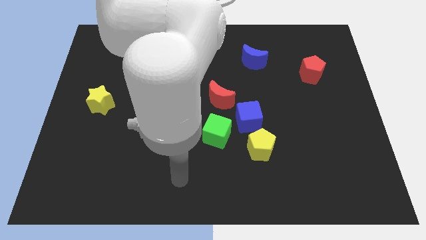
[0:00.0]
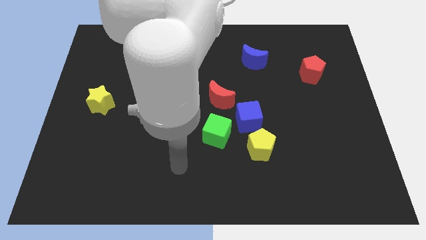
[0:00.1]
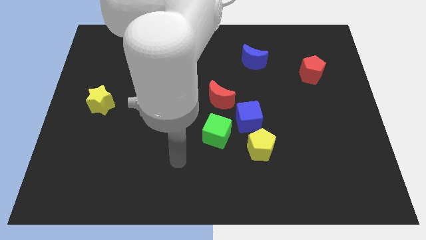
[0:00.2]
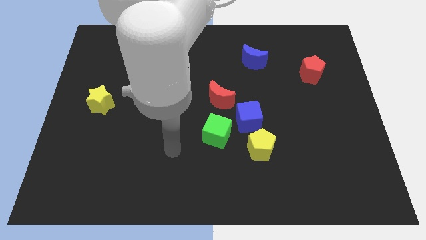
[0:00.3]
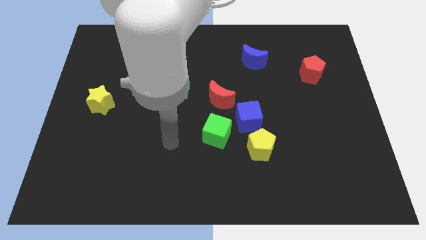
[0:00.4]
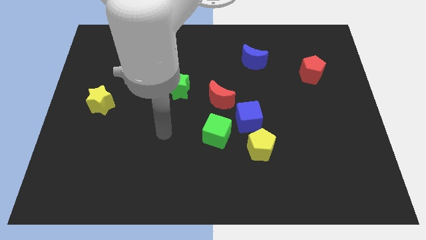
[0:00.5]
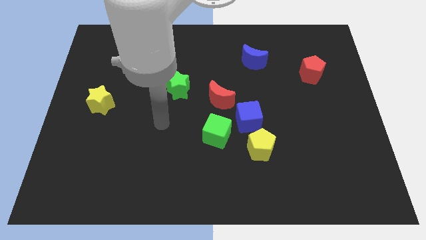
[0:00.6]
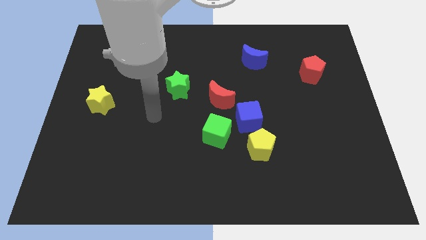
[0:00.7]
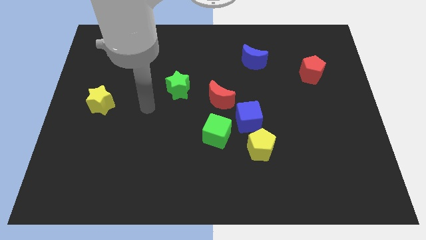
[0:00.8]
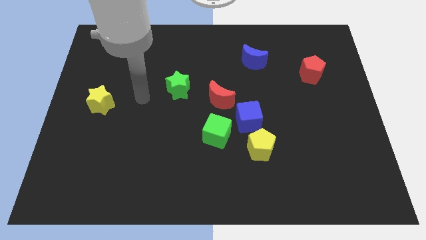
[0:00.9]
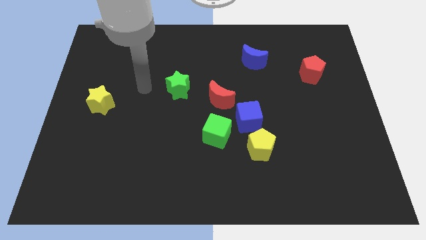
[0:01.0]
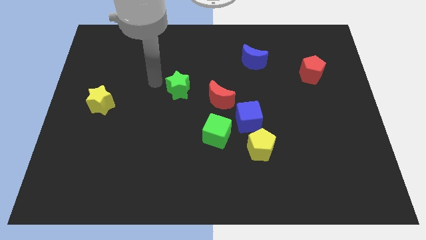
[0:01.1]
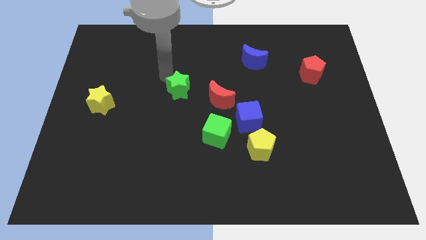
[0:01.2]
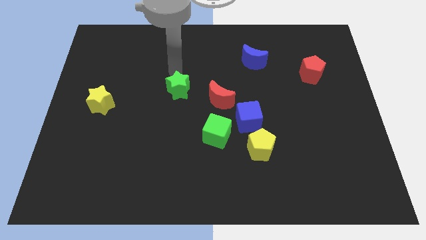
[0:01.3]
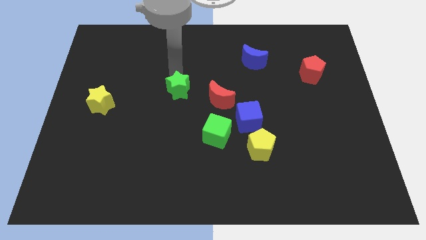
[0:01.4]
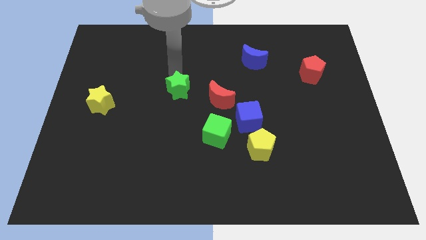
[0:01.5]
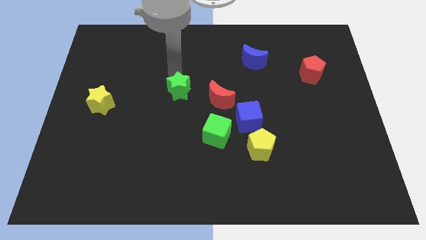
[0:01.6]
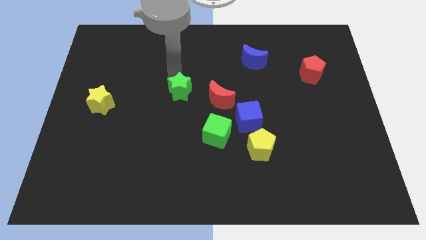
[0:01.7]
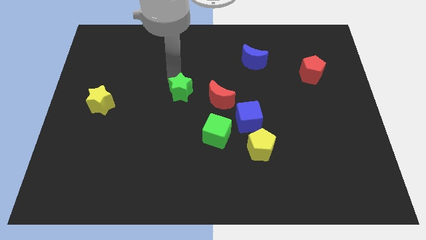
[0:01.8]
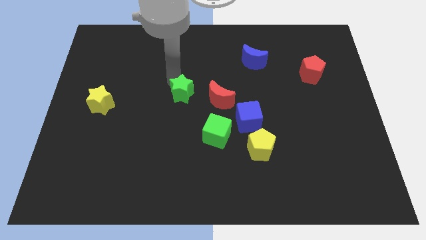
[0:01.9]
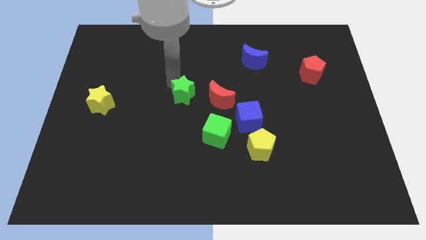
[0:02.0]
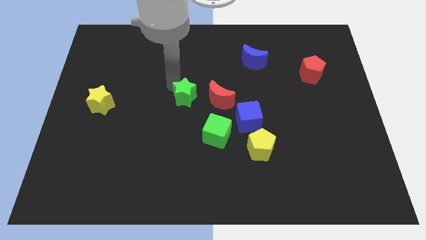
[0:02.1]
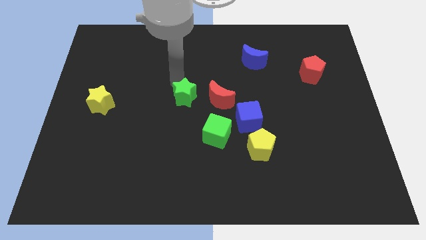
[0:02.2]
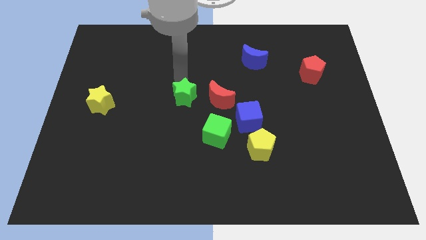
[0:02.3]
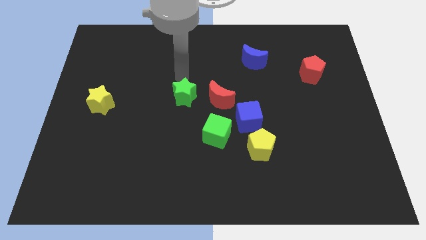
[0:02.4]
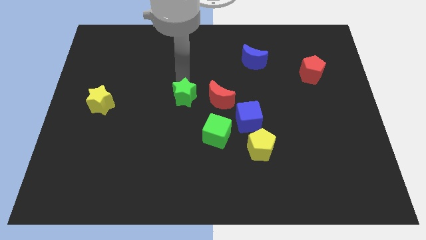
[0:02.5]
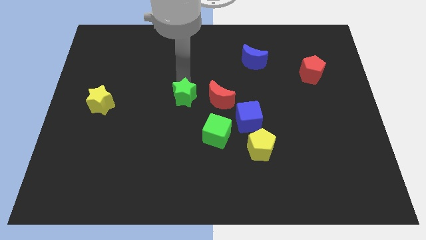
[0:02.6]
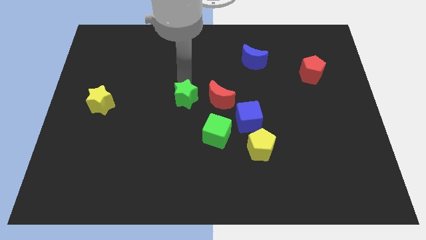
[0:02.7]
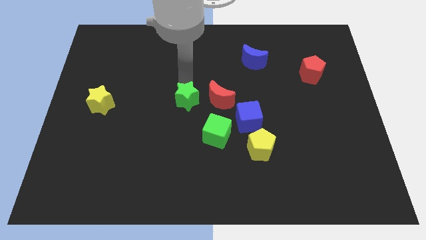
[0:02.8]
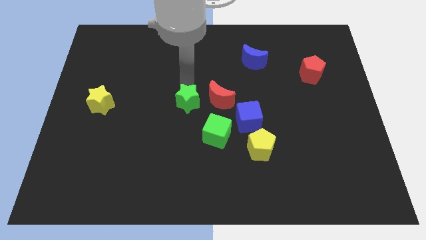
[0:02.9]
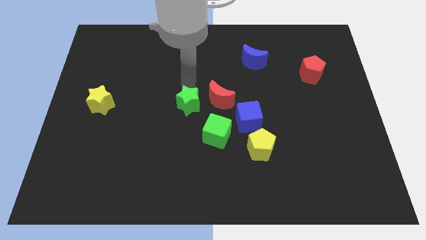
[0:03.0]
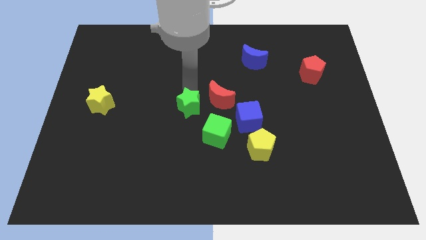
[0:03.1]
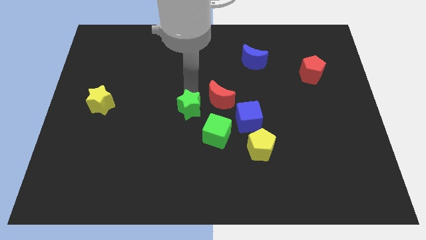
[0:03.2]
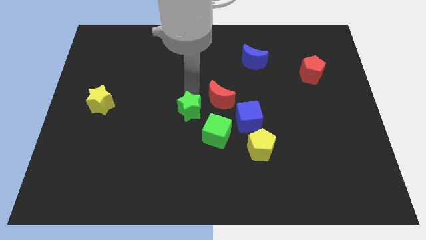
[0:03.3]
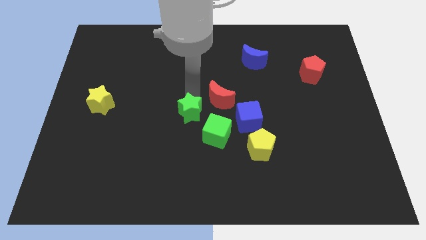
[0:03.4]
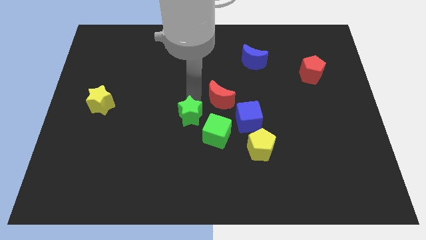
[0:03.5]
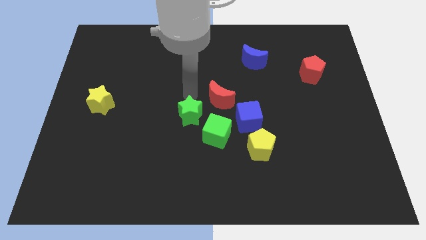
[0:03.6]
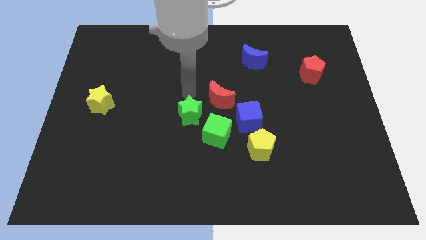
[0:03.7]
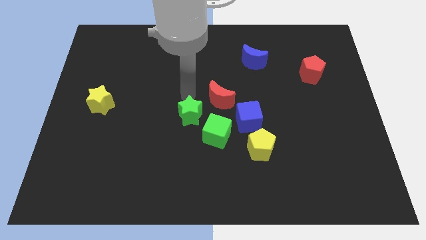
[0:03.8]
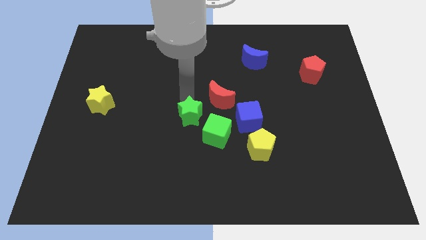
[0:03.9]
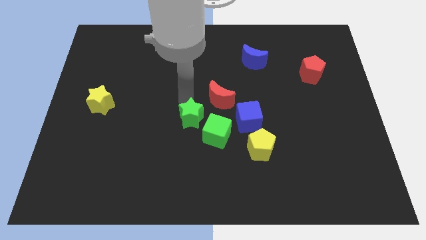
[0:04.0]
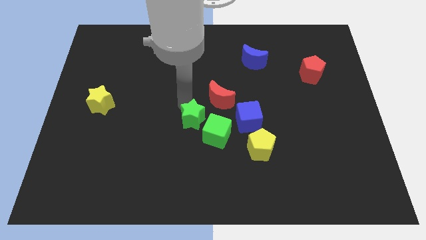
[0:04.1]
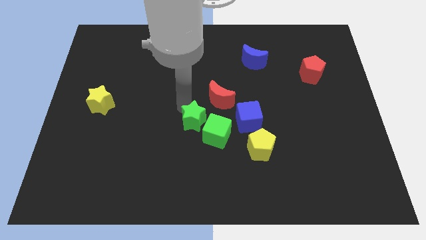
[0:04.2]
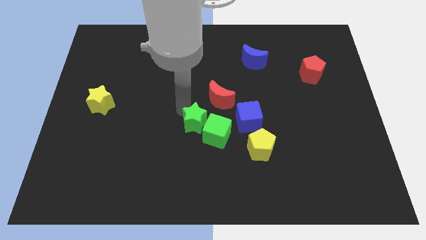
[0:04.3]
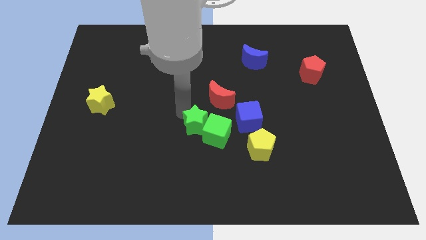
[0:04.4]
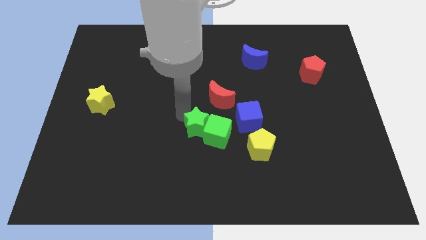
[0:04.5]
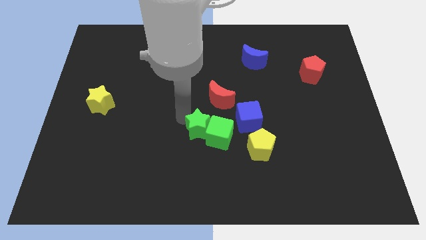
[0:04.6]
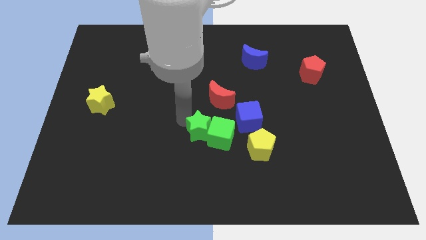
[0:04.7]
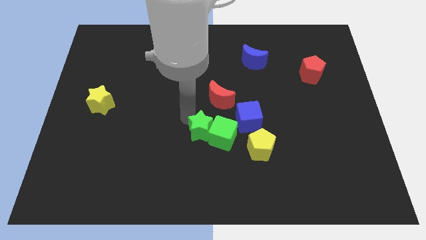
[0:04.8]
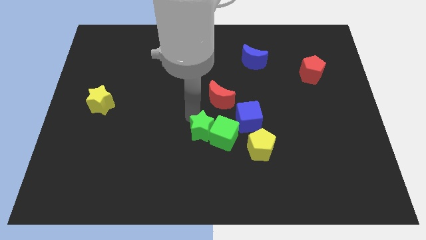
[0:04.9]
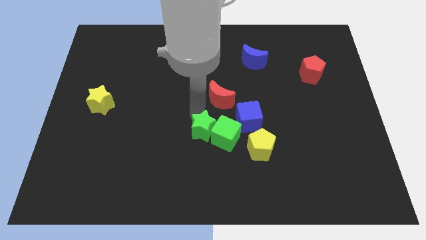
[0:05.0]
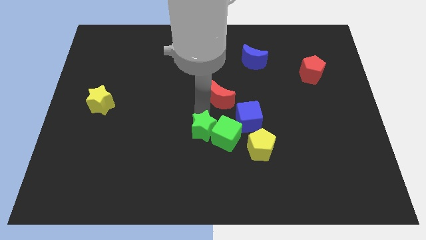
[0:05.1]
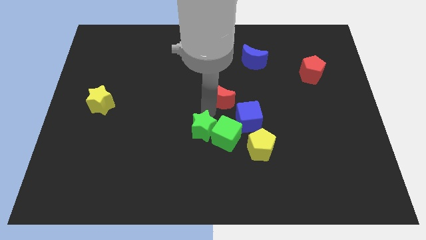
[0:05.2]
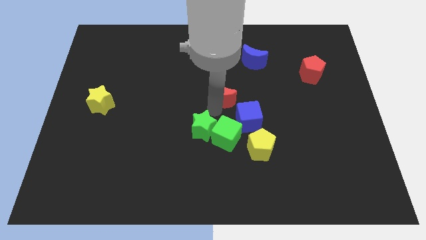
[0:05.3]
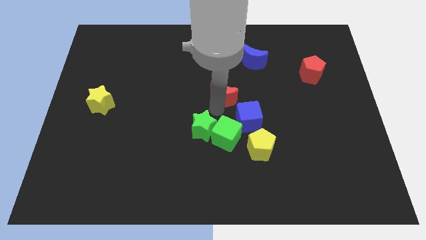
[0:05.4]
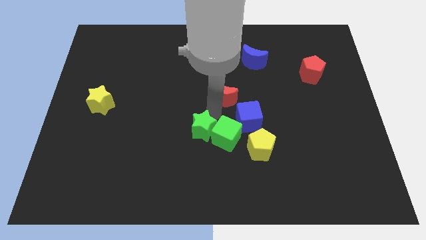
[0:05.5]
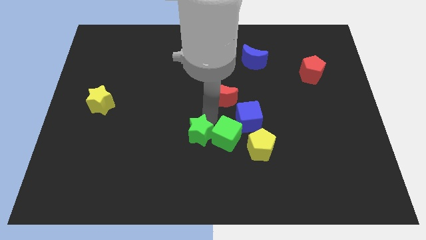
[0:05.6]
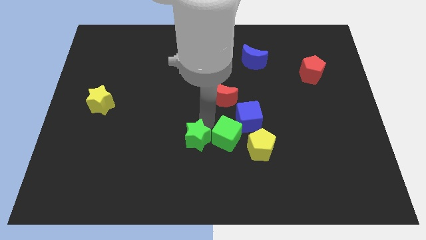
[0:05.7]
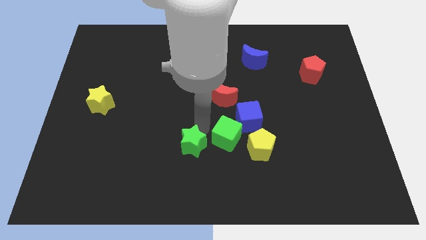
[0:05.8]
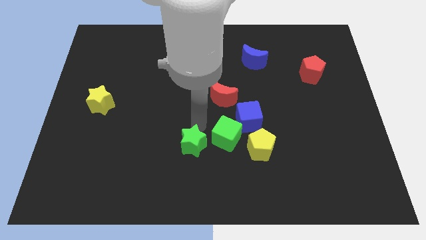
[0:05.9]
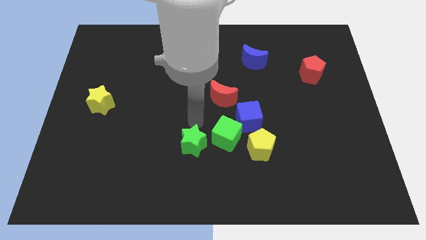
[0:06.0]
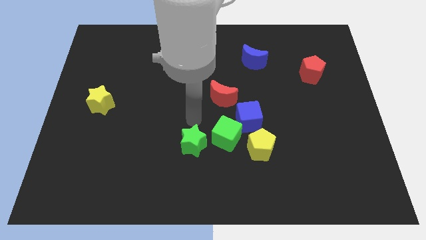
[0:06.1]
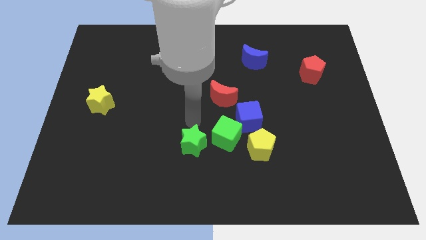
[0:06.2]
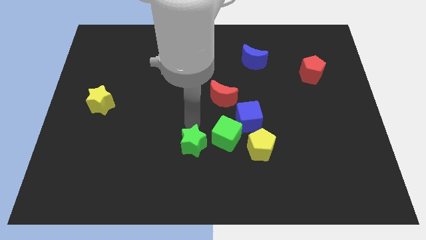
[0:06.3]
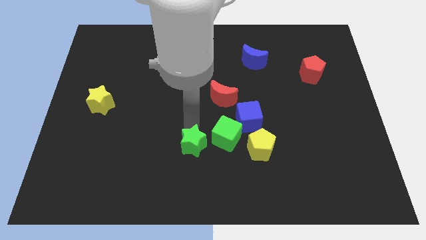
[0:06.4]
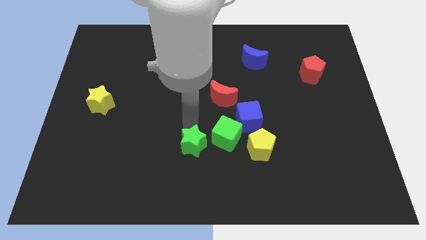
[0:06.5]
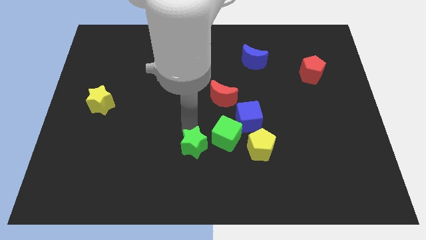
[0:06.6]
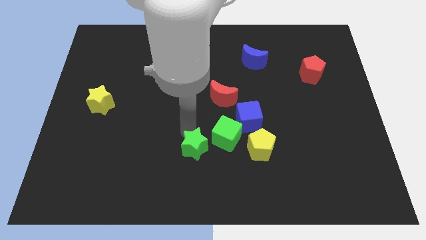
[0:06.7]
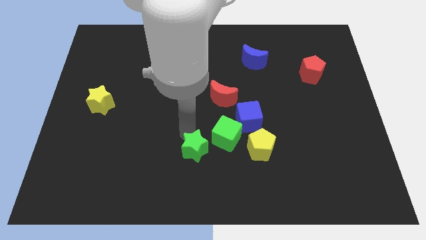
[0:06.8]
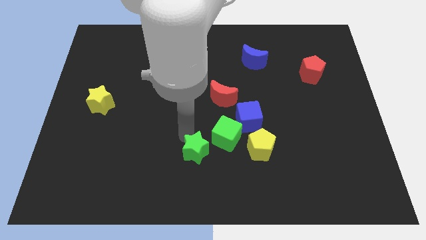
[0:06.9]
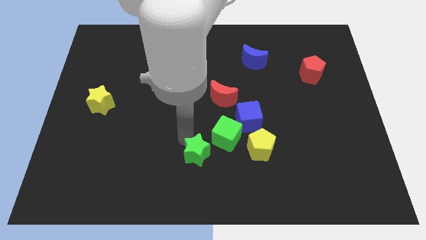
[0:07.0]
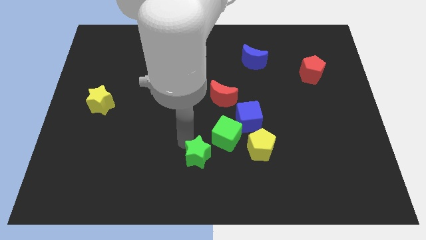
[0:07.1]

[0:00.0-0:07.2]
push the green star to the bottom side
